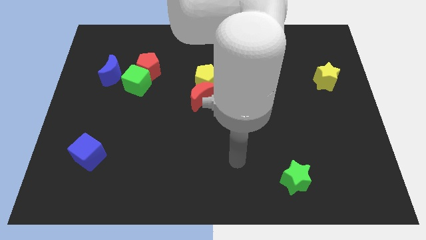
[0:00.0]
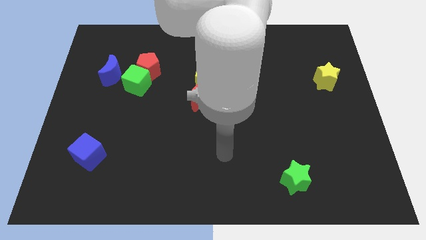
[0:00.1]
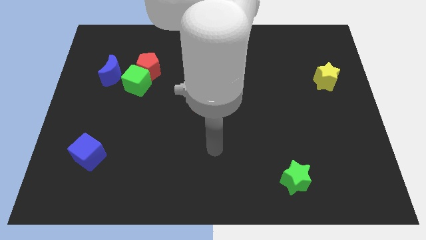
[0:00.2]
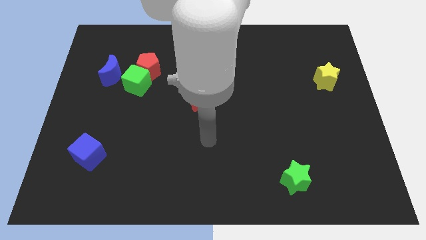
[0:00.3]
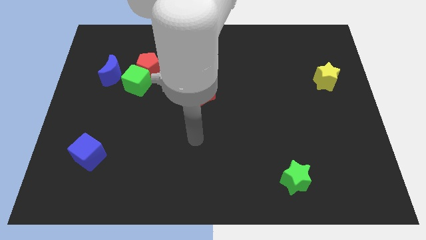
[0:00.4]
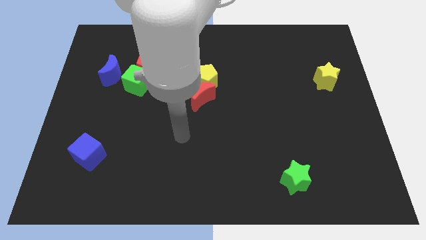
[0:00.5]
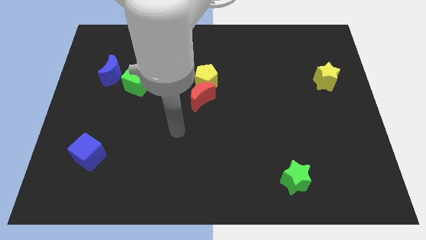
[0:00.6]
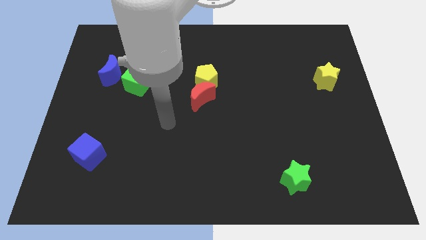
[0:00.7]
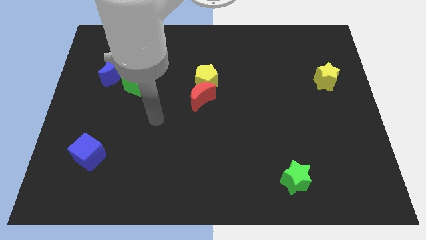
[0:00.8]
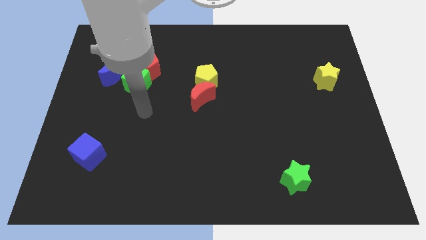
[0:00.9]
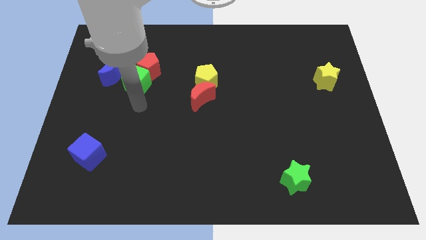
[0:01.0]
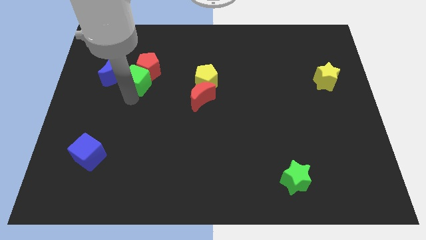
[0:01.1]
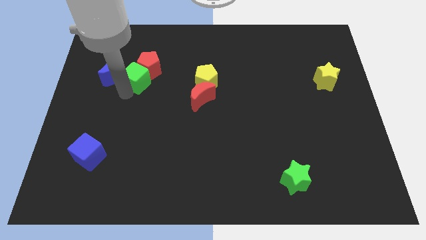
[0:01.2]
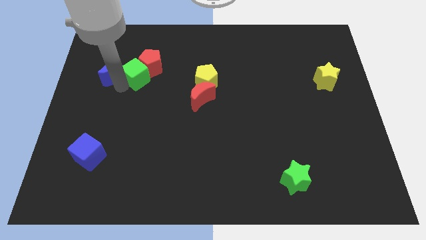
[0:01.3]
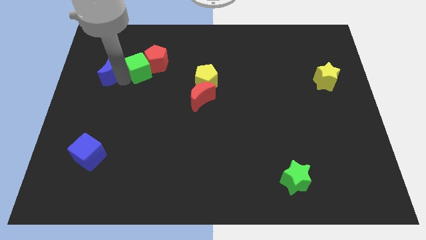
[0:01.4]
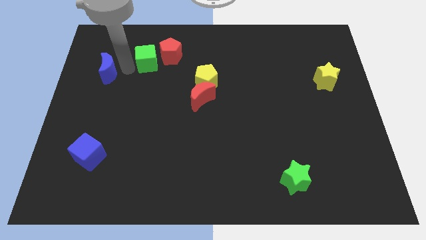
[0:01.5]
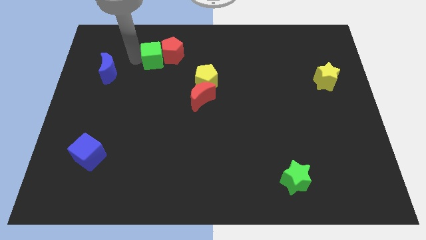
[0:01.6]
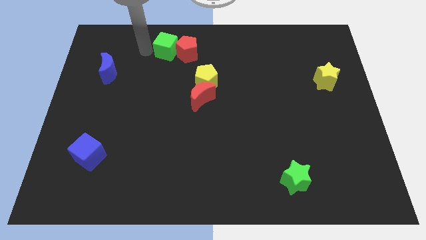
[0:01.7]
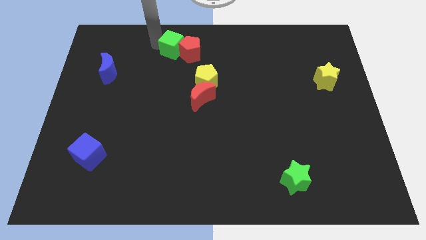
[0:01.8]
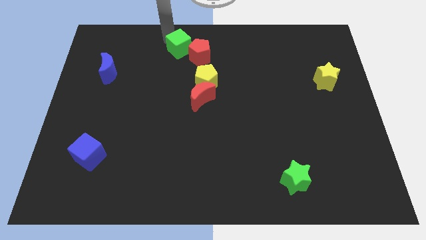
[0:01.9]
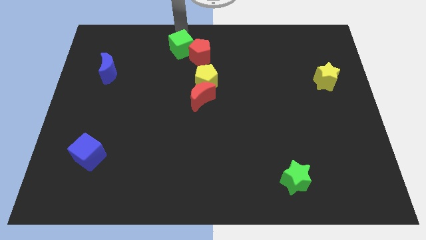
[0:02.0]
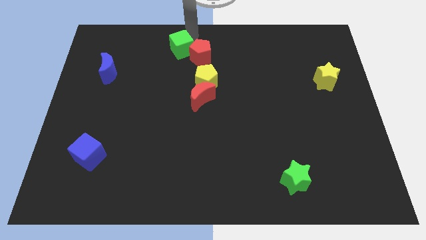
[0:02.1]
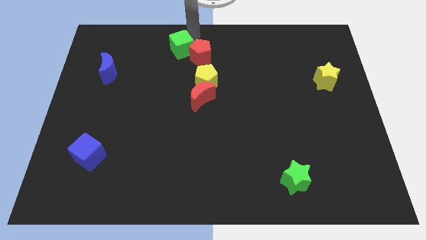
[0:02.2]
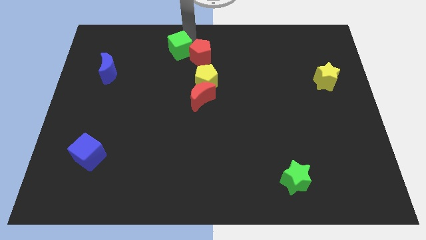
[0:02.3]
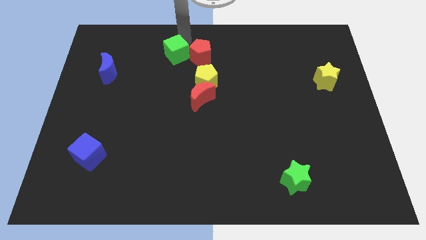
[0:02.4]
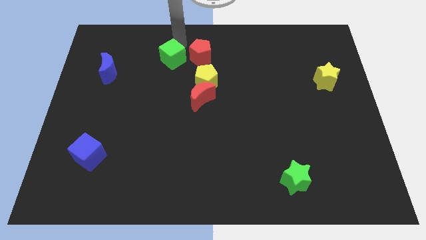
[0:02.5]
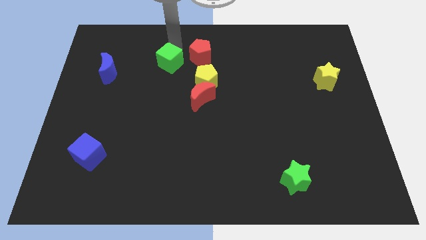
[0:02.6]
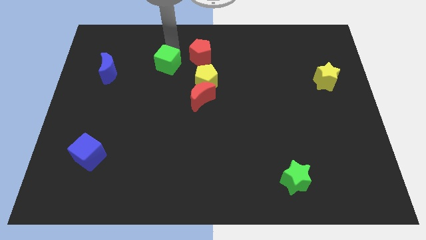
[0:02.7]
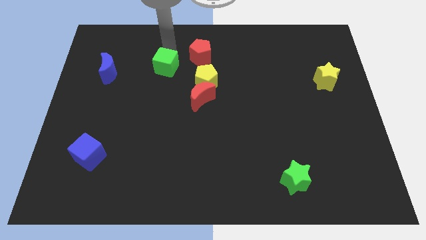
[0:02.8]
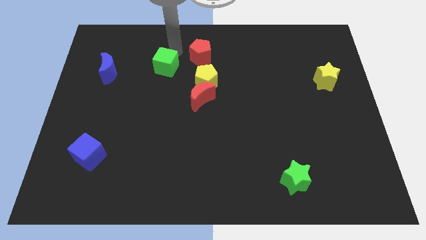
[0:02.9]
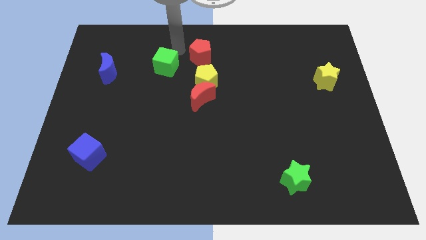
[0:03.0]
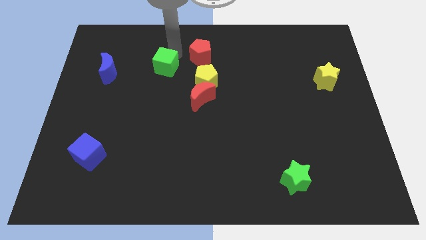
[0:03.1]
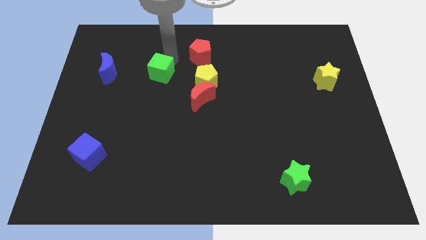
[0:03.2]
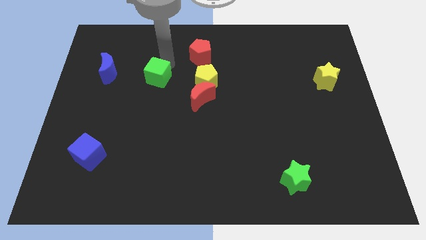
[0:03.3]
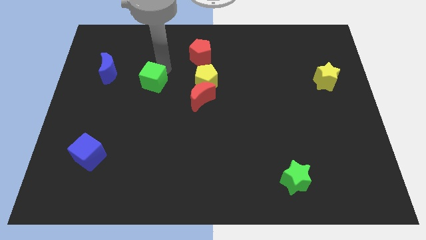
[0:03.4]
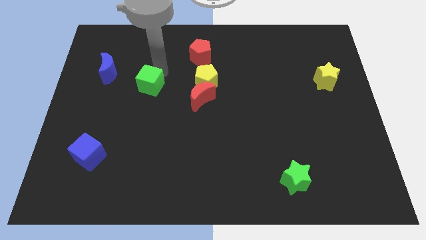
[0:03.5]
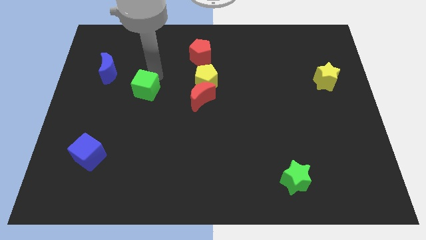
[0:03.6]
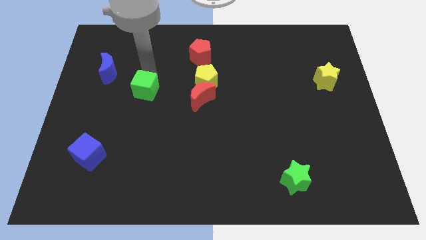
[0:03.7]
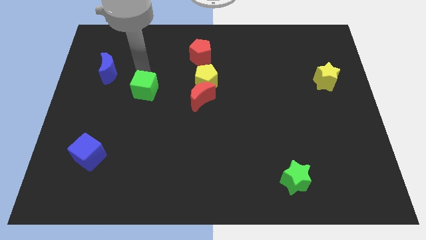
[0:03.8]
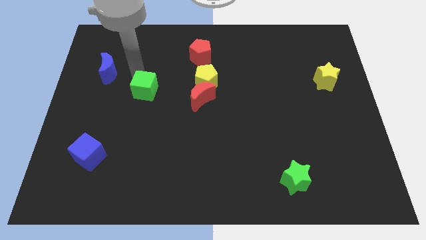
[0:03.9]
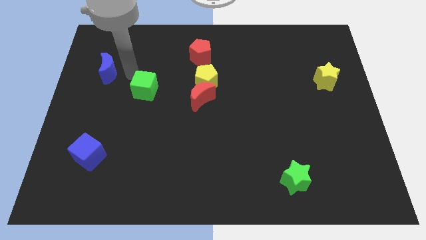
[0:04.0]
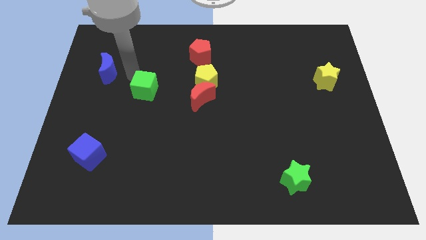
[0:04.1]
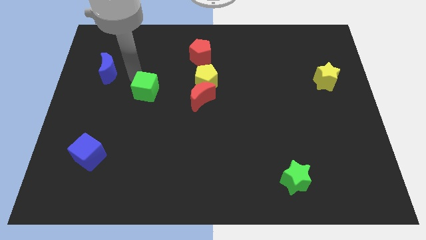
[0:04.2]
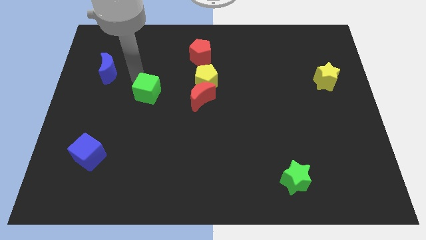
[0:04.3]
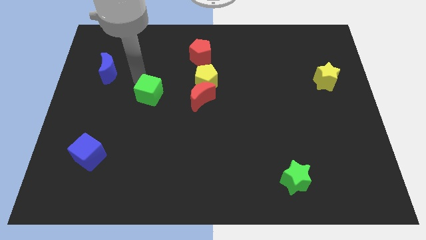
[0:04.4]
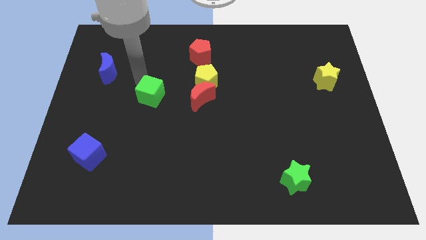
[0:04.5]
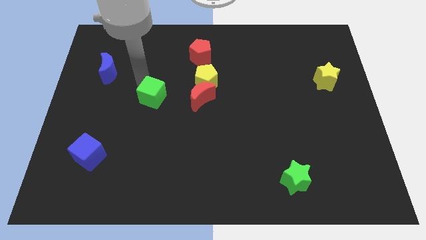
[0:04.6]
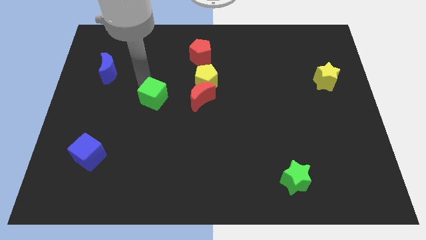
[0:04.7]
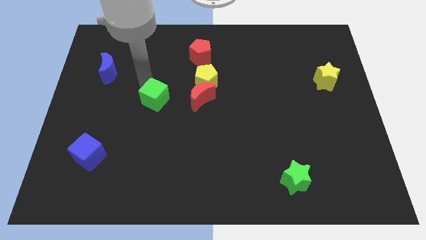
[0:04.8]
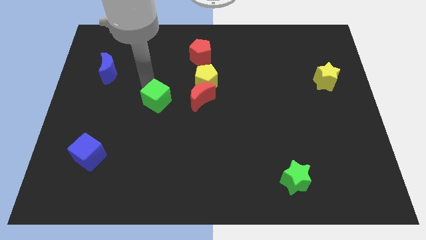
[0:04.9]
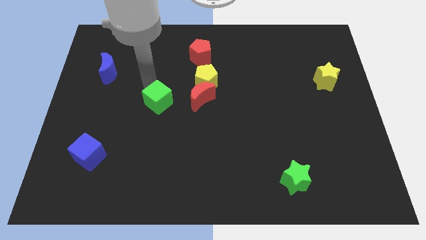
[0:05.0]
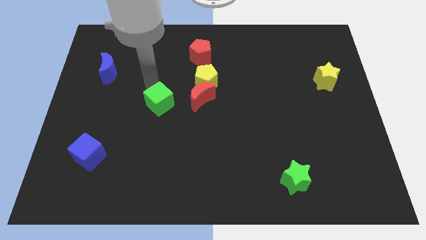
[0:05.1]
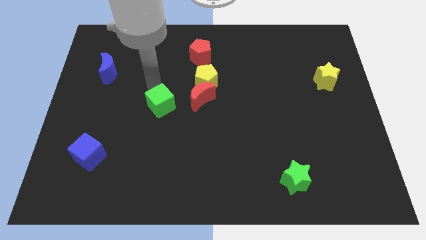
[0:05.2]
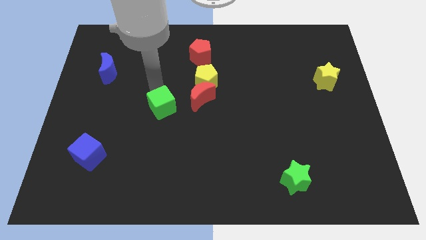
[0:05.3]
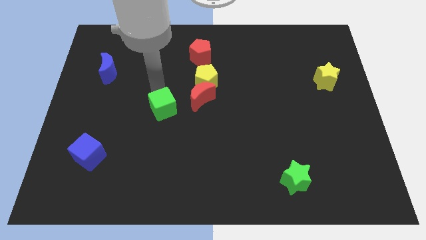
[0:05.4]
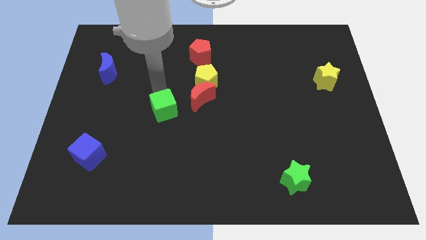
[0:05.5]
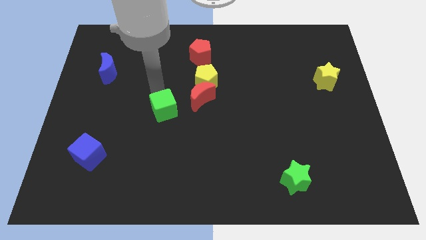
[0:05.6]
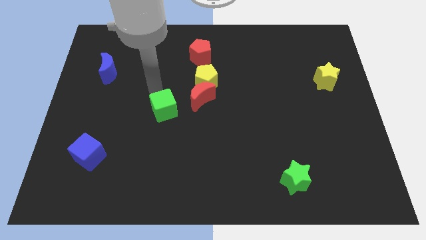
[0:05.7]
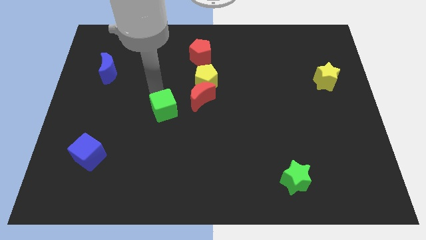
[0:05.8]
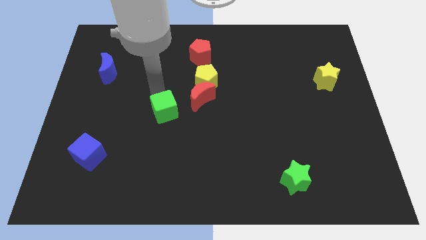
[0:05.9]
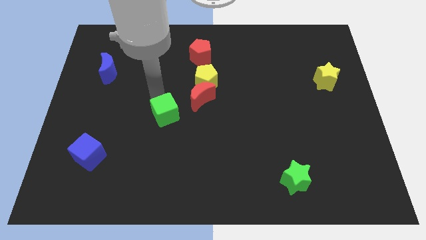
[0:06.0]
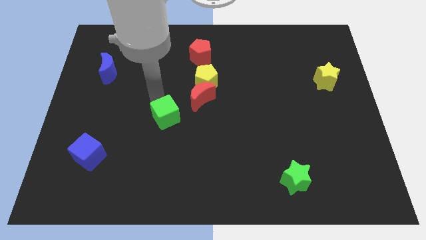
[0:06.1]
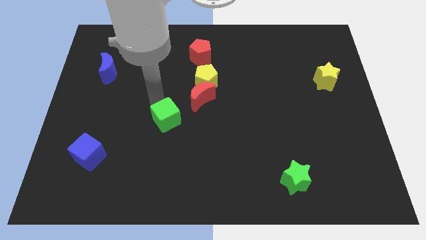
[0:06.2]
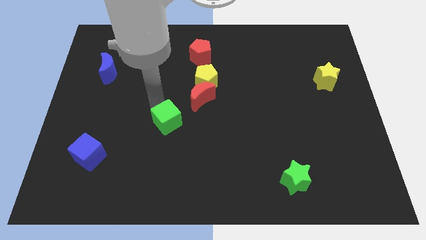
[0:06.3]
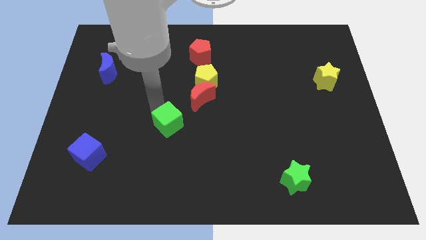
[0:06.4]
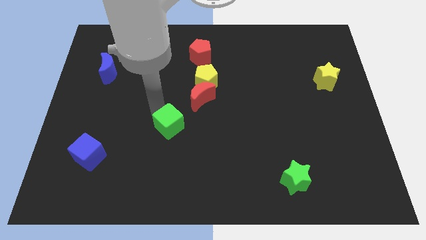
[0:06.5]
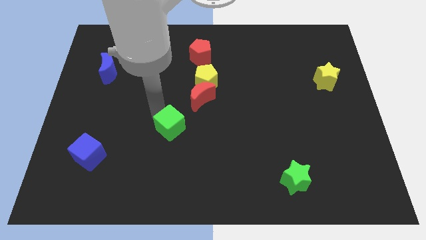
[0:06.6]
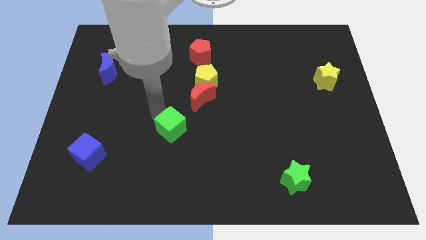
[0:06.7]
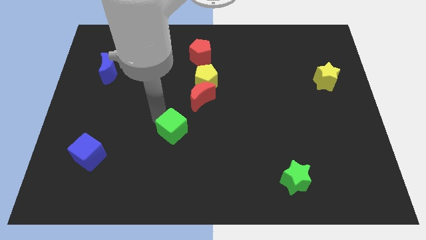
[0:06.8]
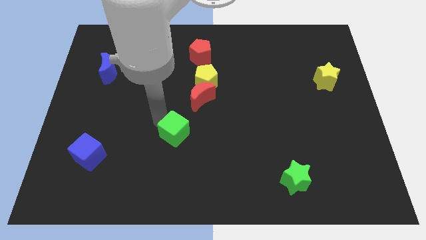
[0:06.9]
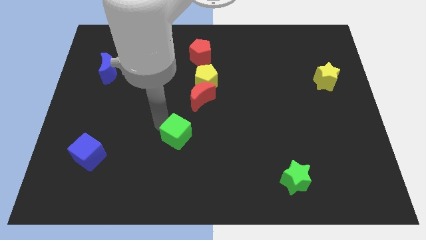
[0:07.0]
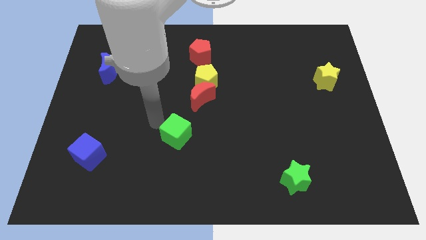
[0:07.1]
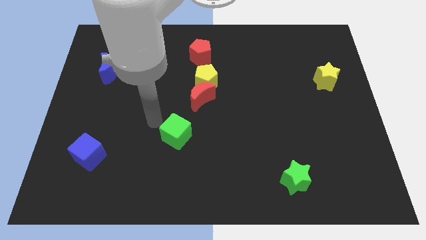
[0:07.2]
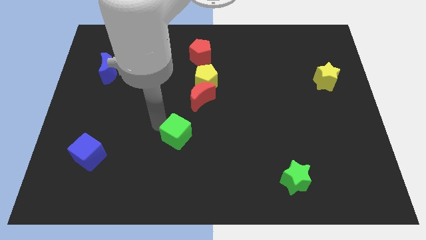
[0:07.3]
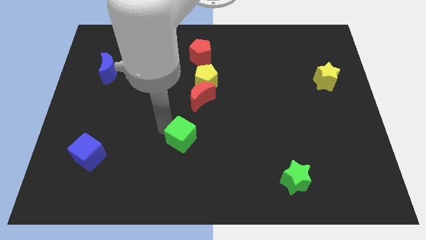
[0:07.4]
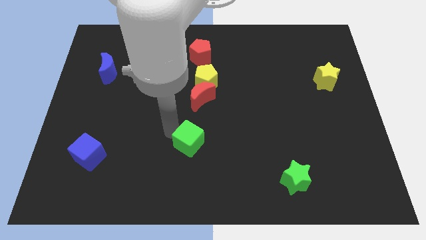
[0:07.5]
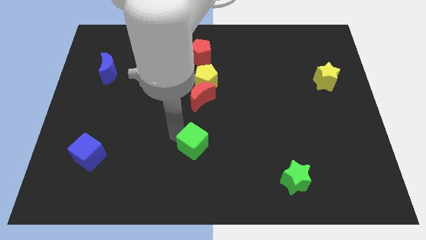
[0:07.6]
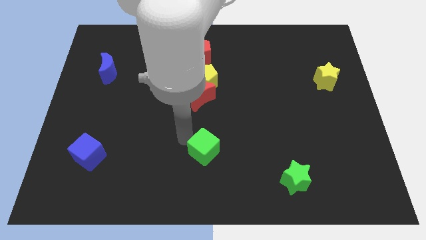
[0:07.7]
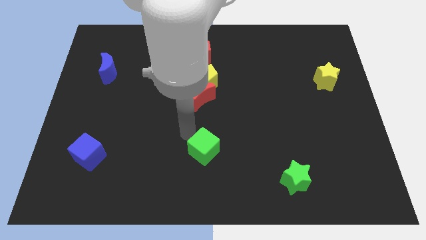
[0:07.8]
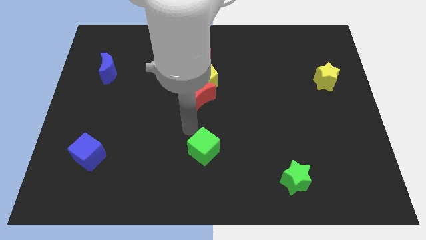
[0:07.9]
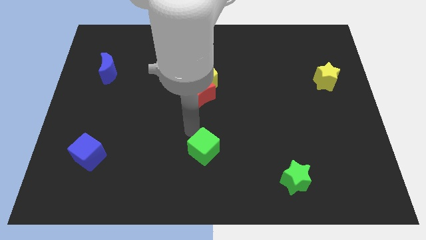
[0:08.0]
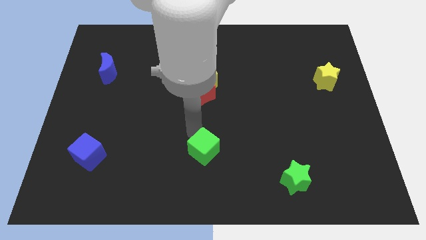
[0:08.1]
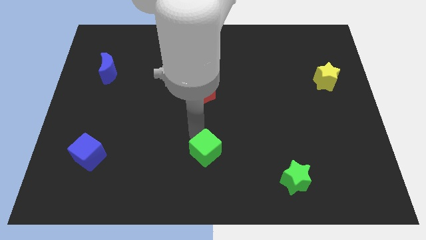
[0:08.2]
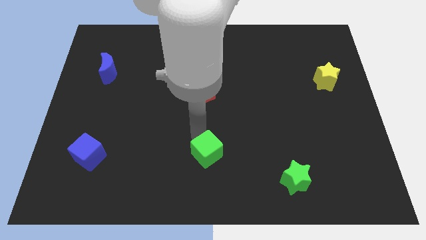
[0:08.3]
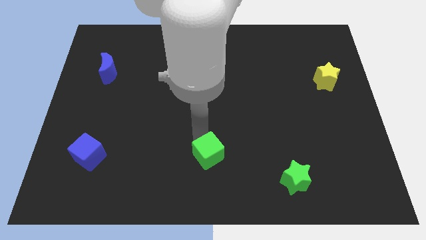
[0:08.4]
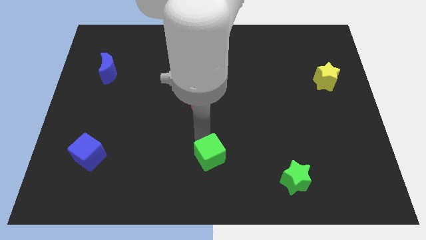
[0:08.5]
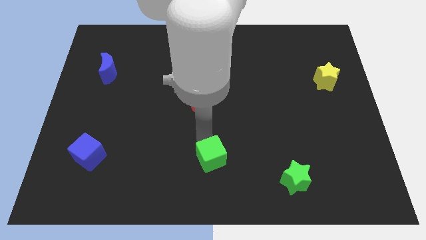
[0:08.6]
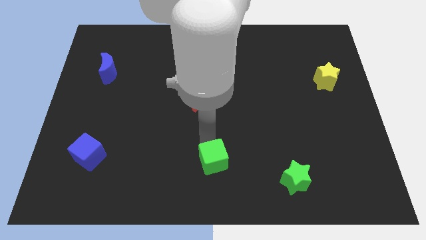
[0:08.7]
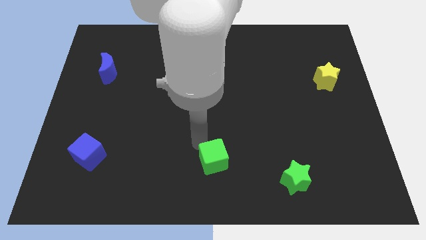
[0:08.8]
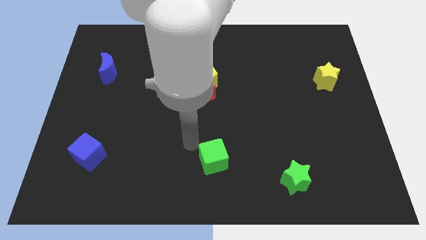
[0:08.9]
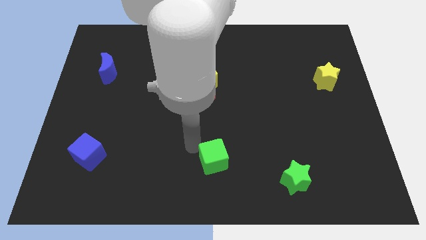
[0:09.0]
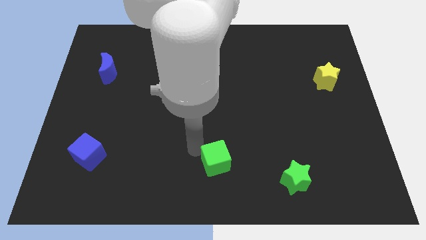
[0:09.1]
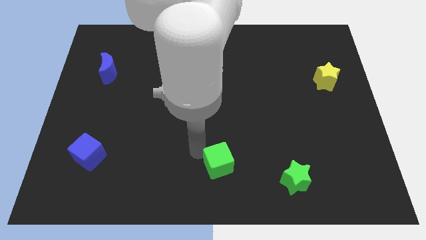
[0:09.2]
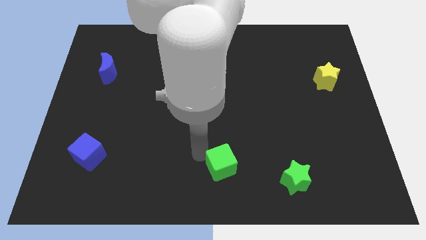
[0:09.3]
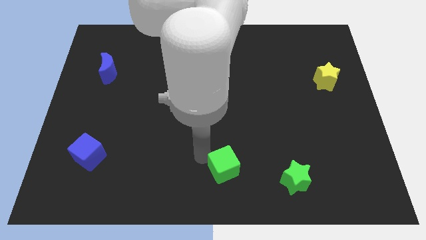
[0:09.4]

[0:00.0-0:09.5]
put the green cube just left of the green star
